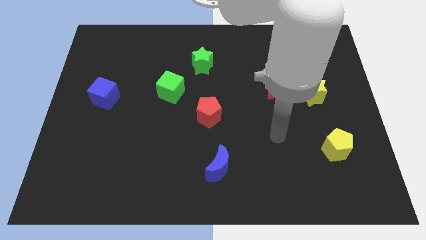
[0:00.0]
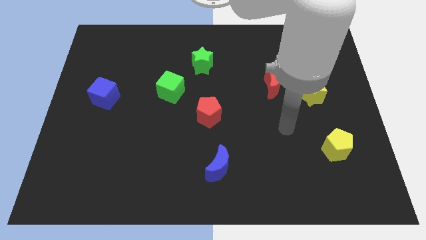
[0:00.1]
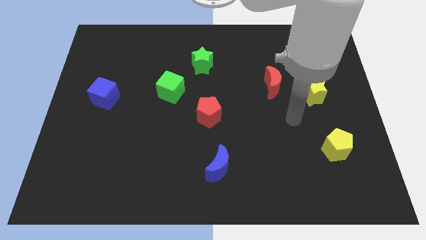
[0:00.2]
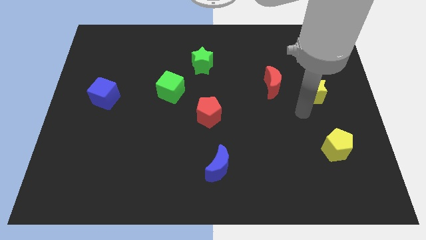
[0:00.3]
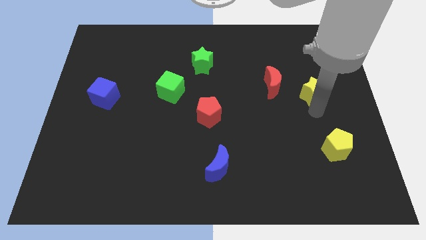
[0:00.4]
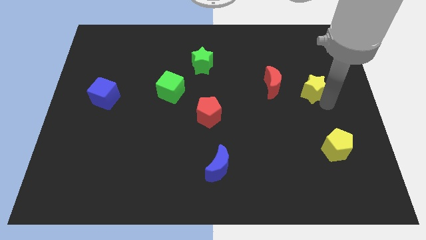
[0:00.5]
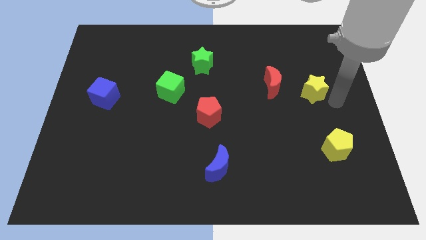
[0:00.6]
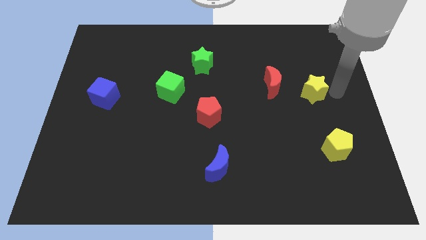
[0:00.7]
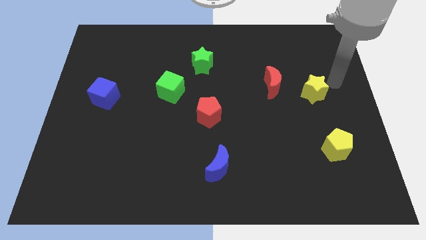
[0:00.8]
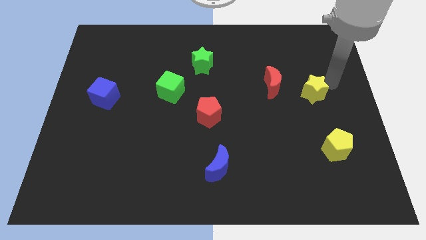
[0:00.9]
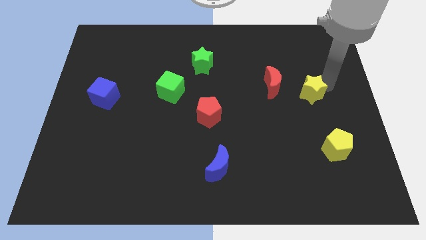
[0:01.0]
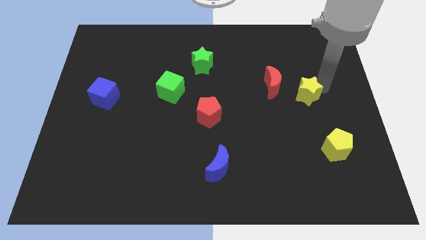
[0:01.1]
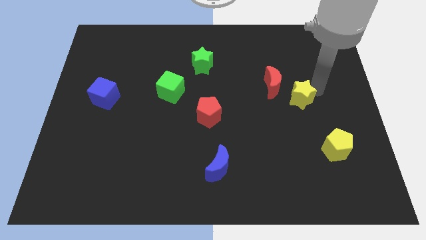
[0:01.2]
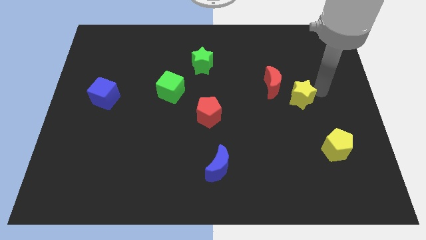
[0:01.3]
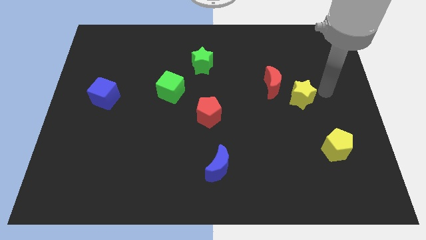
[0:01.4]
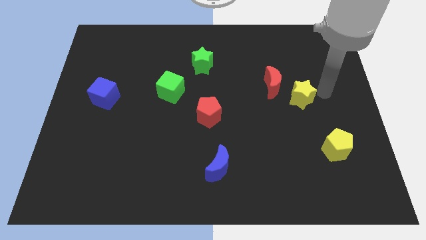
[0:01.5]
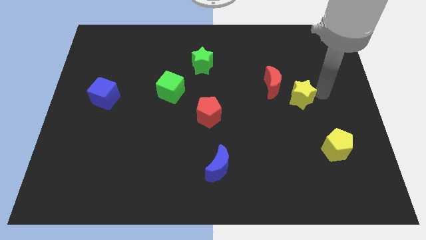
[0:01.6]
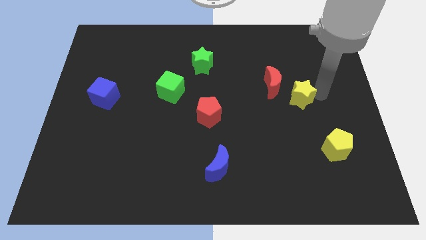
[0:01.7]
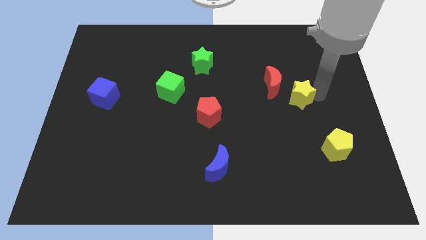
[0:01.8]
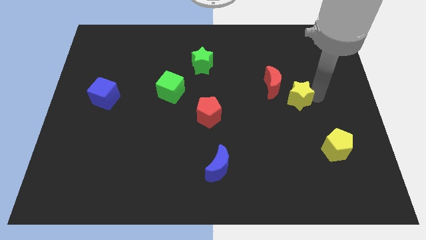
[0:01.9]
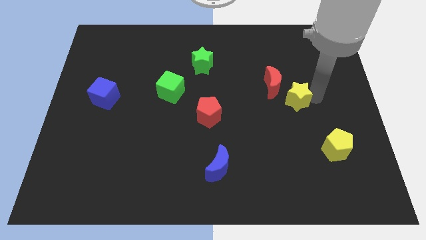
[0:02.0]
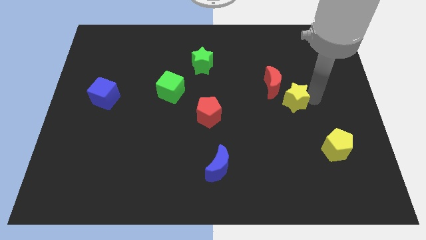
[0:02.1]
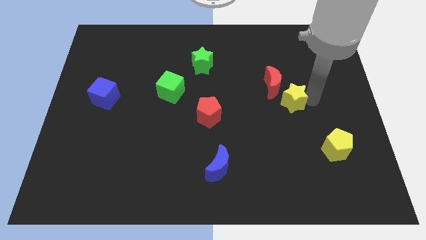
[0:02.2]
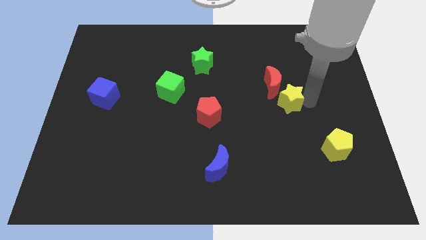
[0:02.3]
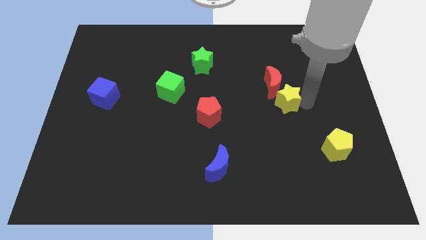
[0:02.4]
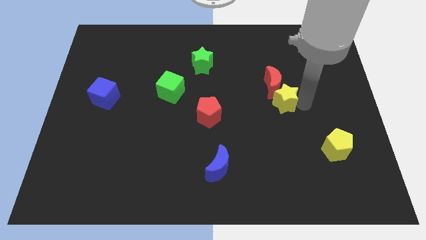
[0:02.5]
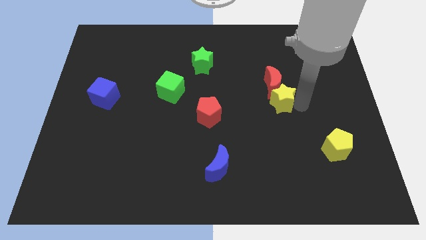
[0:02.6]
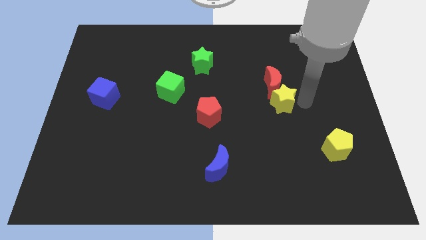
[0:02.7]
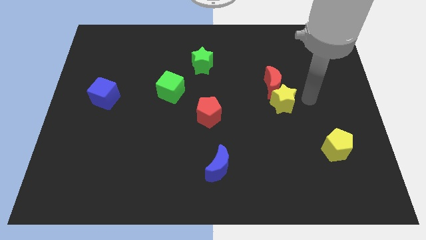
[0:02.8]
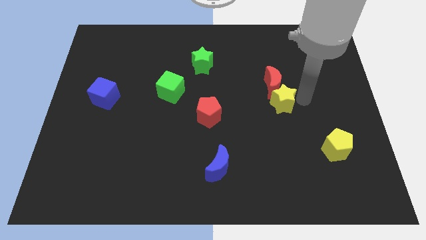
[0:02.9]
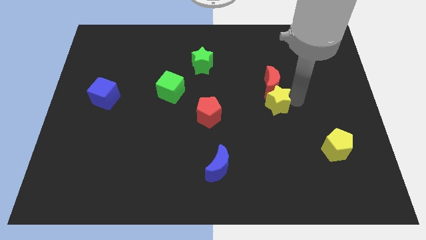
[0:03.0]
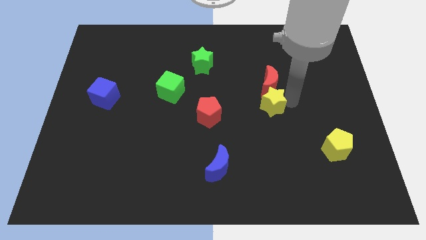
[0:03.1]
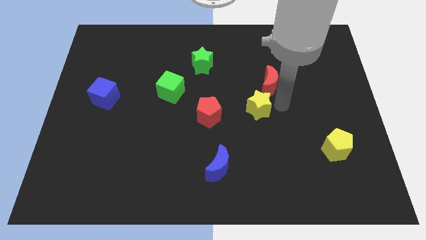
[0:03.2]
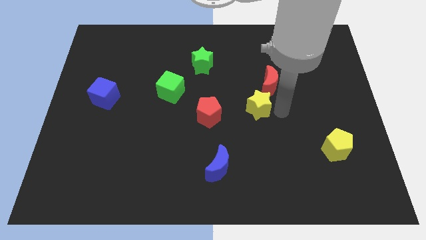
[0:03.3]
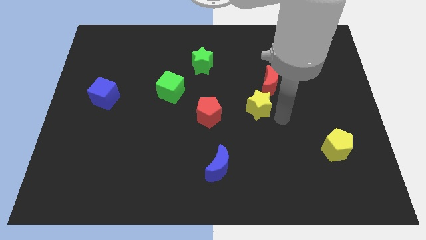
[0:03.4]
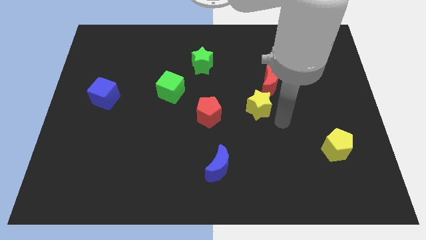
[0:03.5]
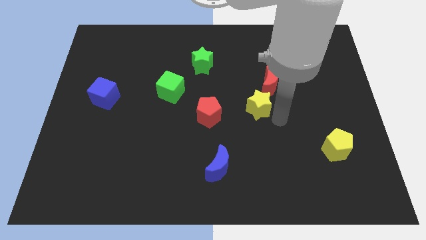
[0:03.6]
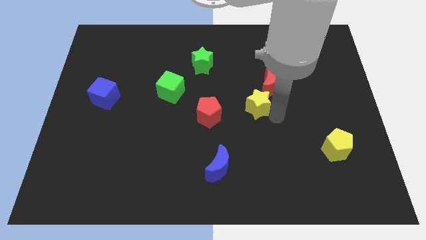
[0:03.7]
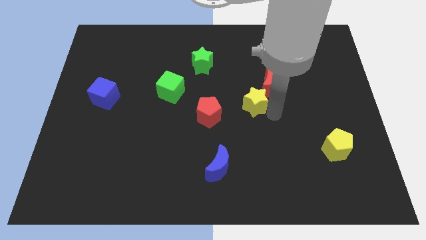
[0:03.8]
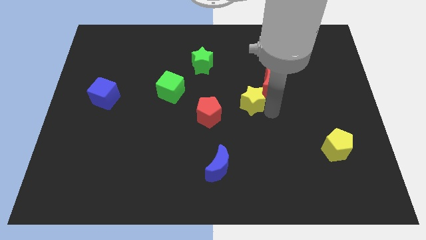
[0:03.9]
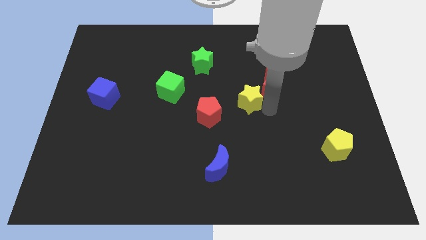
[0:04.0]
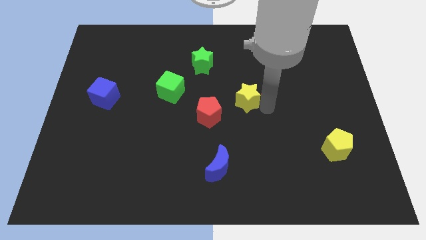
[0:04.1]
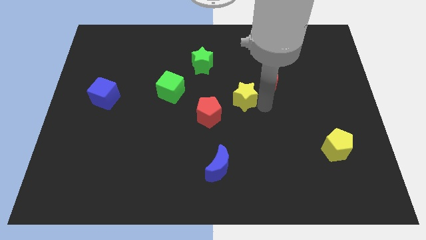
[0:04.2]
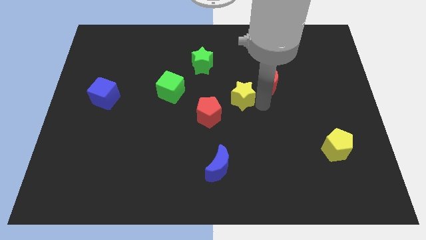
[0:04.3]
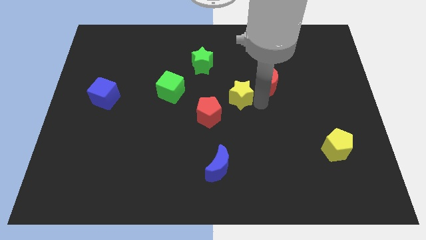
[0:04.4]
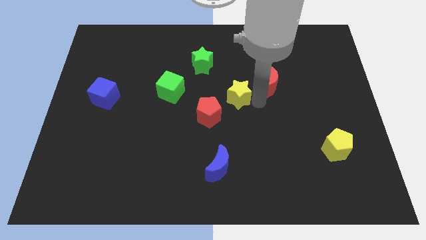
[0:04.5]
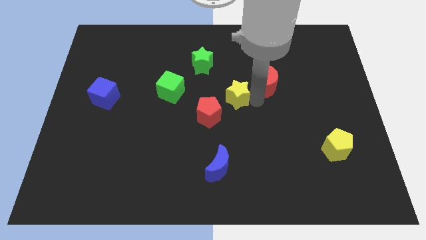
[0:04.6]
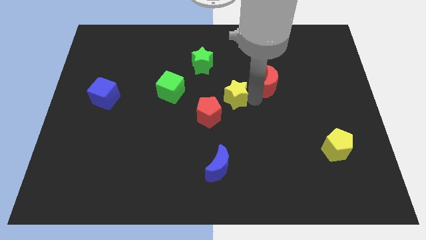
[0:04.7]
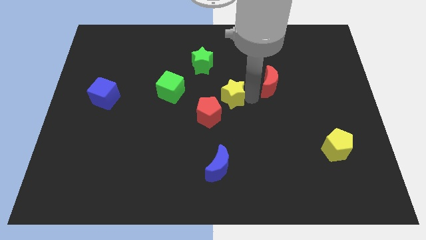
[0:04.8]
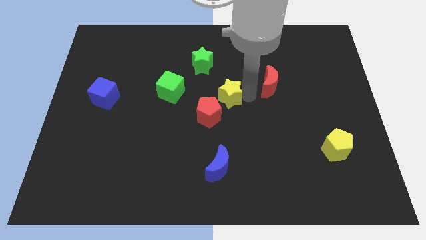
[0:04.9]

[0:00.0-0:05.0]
push the yellow star to the top side of the red pentagon

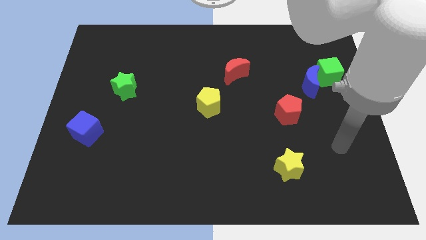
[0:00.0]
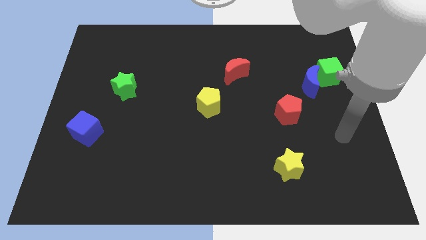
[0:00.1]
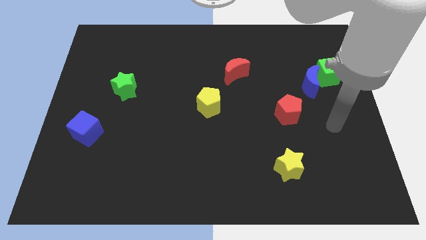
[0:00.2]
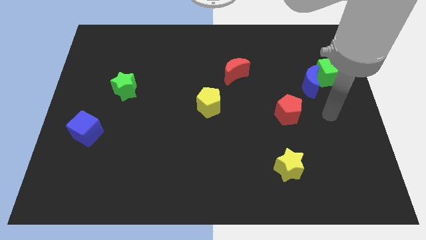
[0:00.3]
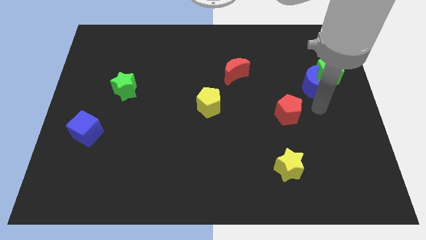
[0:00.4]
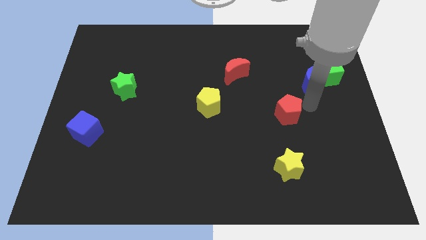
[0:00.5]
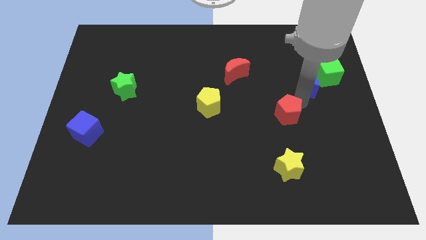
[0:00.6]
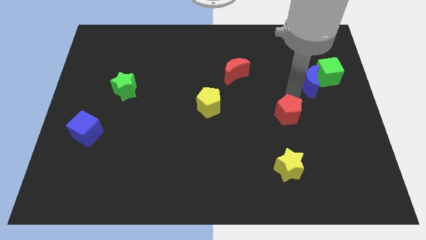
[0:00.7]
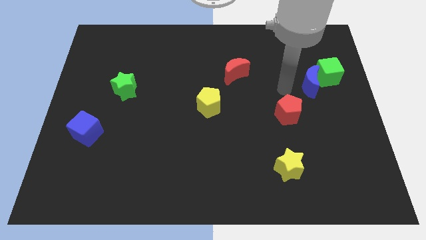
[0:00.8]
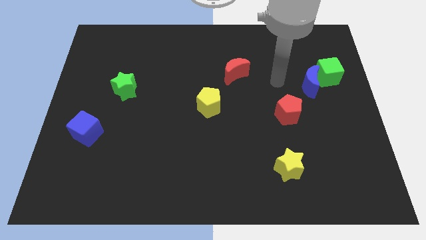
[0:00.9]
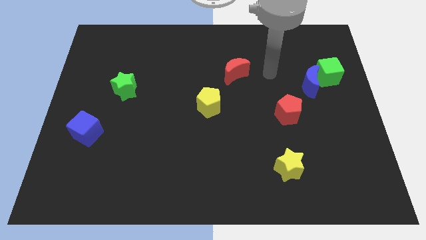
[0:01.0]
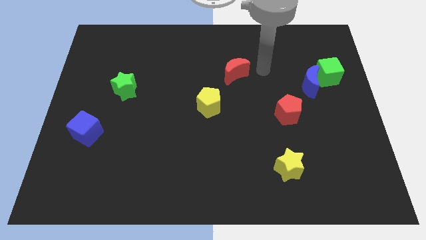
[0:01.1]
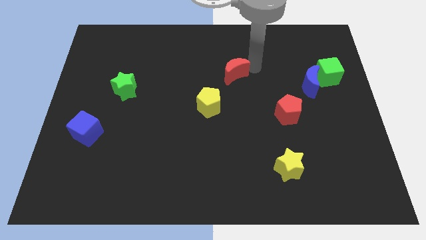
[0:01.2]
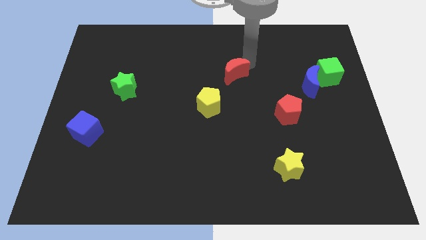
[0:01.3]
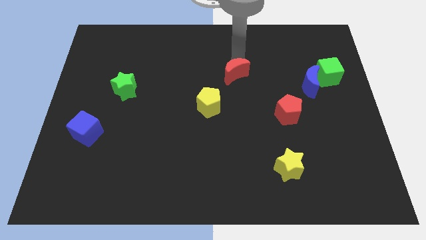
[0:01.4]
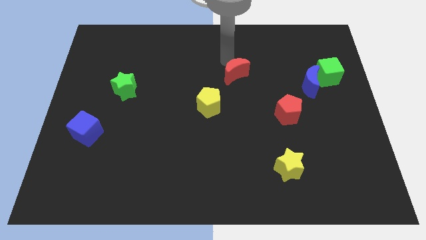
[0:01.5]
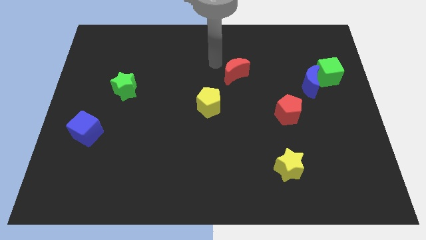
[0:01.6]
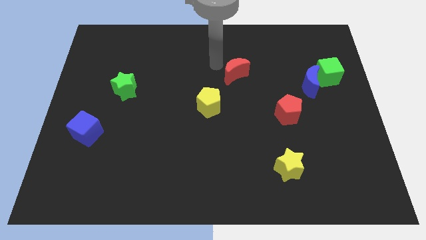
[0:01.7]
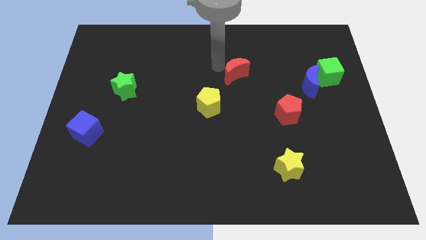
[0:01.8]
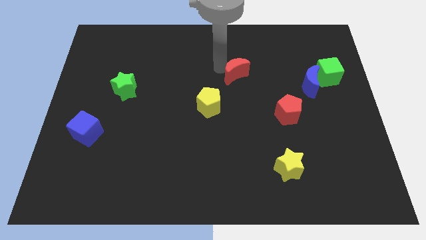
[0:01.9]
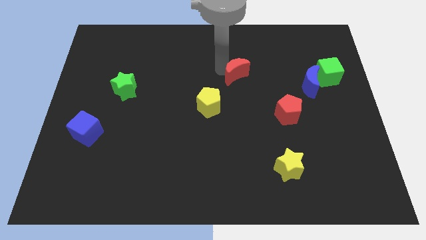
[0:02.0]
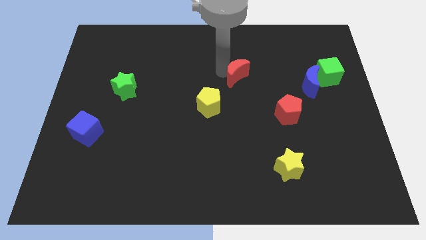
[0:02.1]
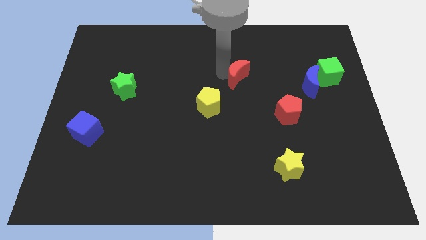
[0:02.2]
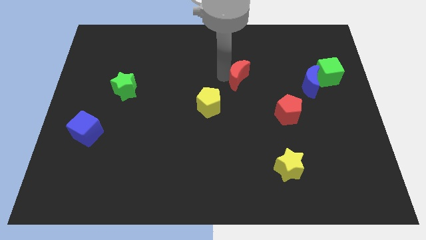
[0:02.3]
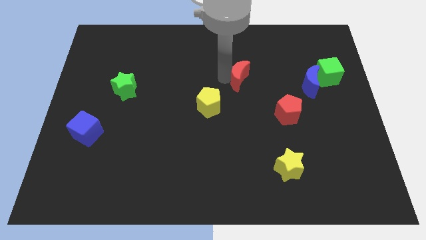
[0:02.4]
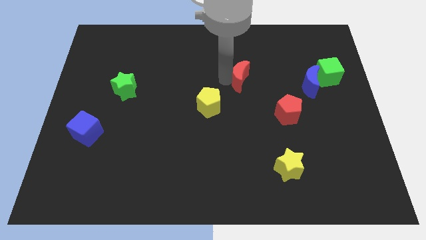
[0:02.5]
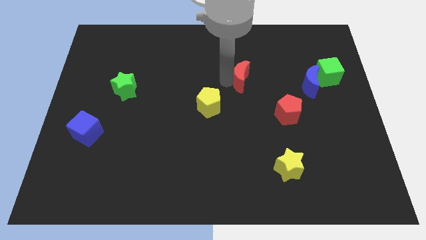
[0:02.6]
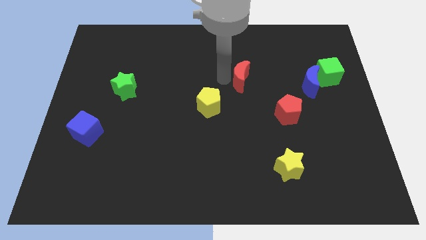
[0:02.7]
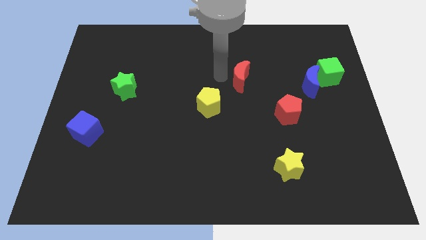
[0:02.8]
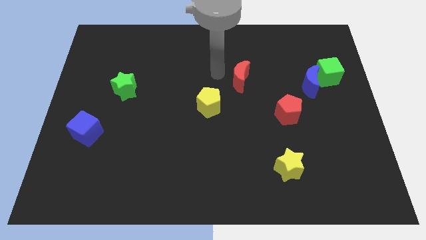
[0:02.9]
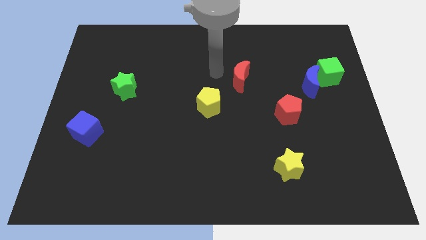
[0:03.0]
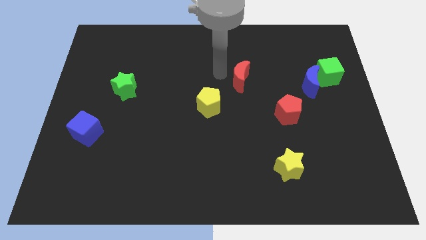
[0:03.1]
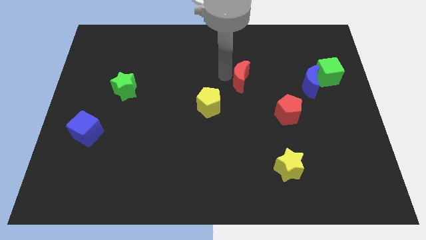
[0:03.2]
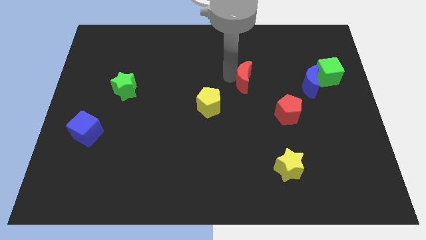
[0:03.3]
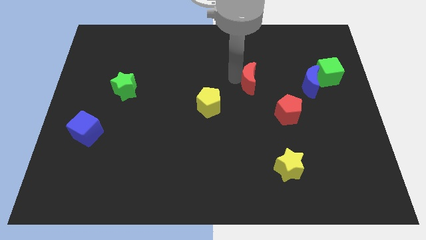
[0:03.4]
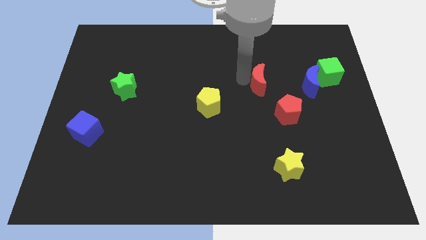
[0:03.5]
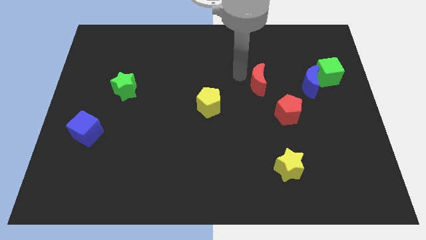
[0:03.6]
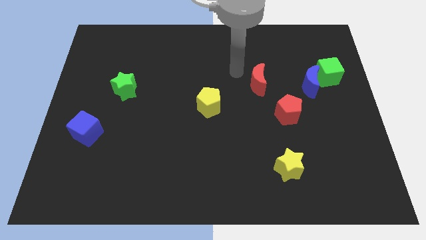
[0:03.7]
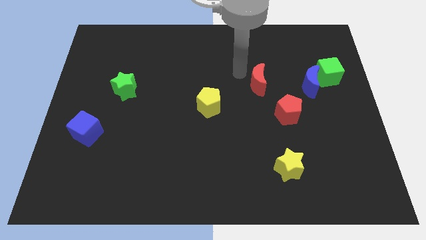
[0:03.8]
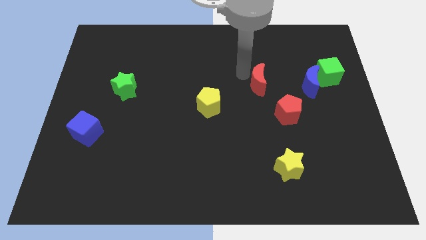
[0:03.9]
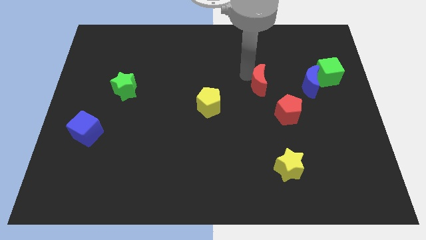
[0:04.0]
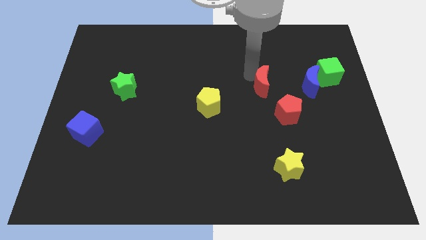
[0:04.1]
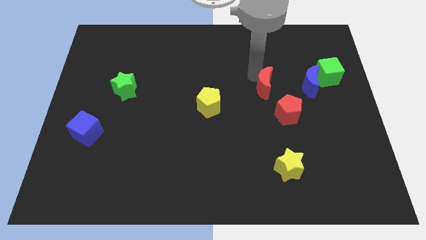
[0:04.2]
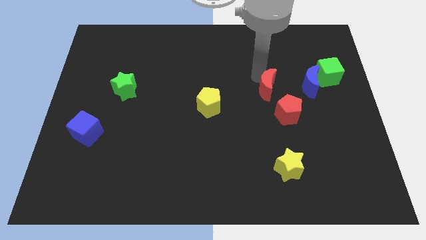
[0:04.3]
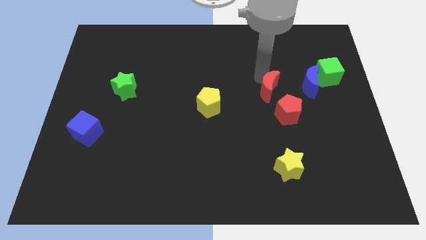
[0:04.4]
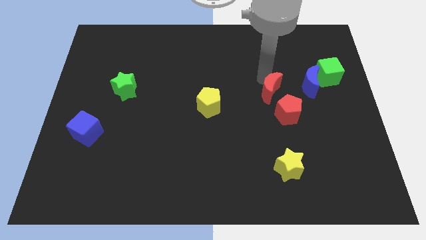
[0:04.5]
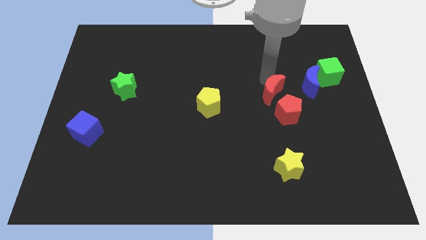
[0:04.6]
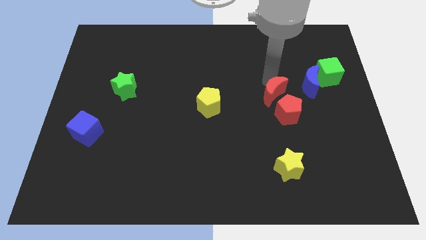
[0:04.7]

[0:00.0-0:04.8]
slide the red moon to the bottom left of the blue moon
